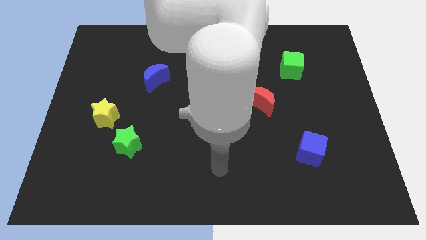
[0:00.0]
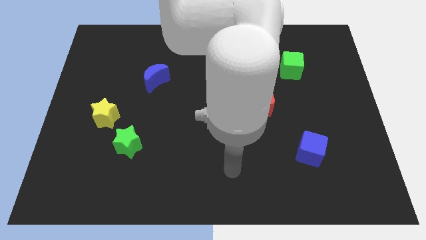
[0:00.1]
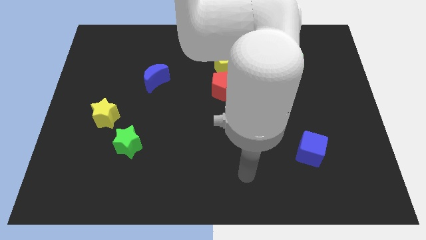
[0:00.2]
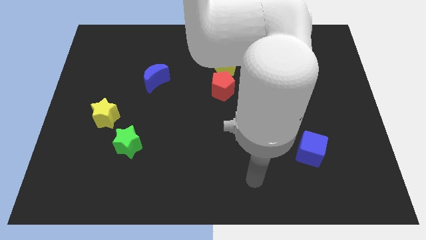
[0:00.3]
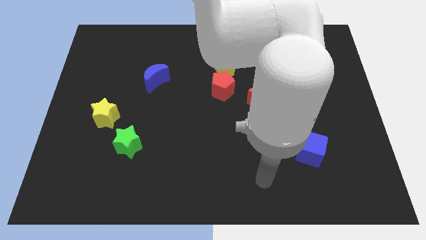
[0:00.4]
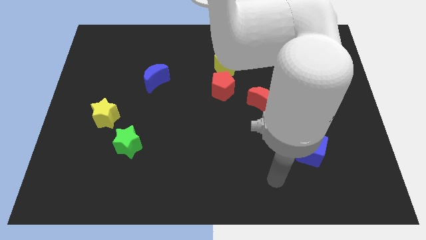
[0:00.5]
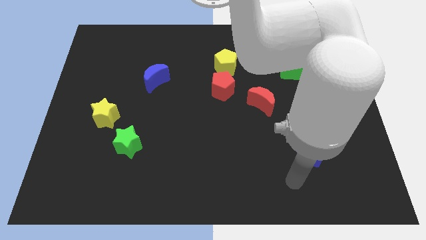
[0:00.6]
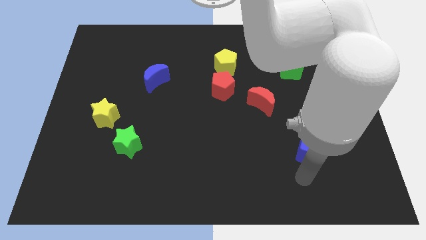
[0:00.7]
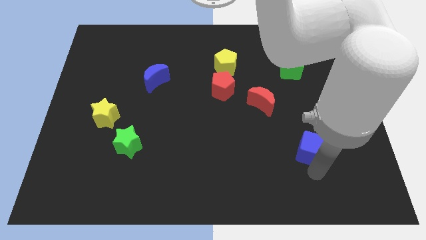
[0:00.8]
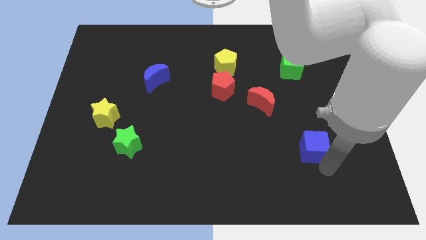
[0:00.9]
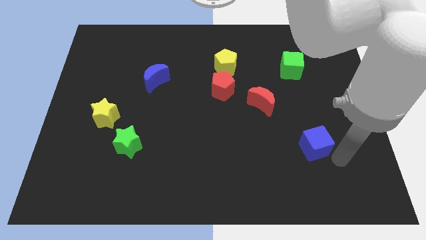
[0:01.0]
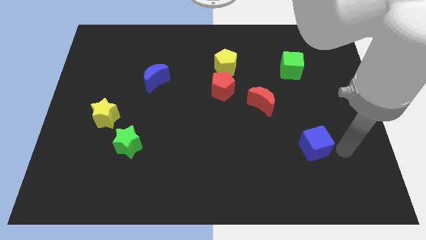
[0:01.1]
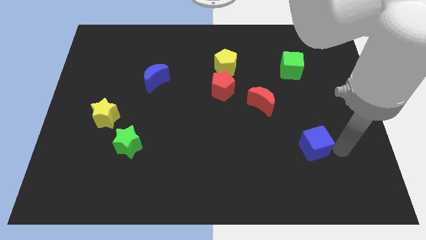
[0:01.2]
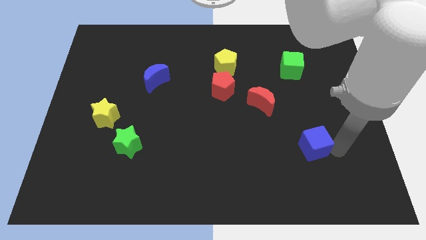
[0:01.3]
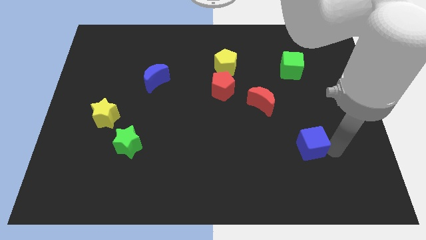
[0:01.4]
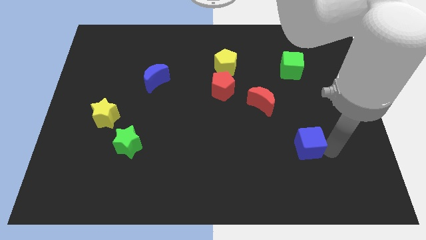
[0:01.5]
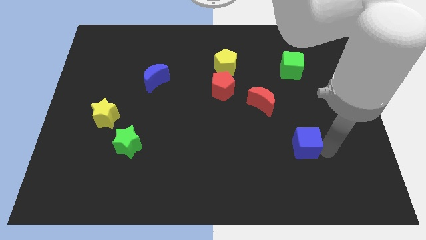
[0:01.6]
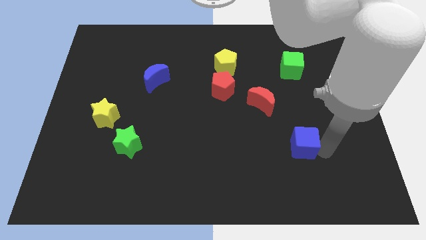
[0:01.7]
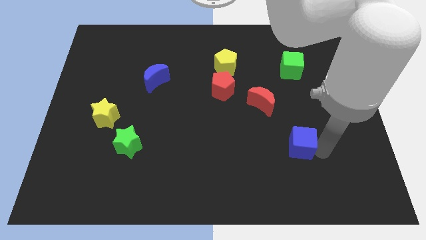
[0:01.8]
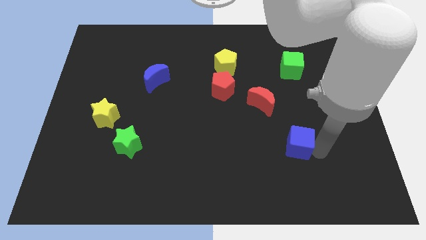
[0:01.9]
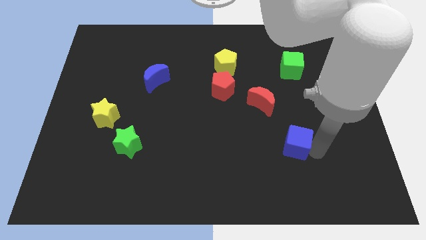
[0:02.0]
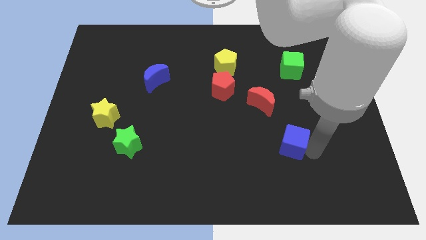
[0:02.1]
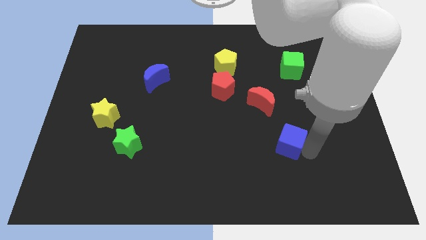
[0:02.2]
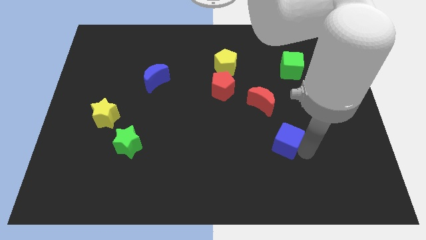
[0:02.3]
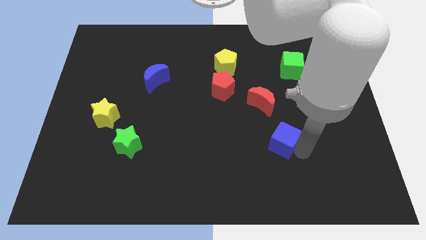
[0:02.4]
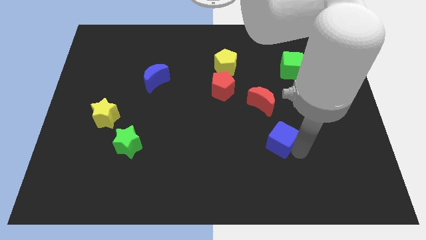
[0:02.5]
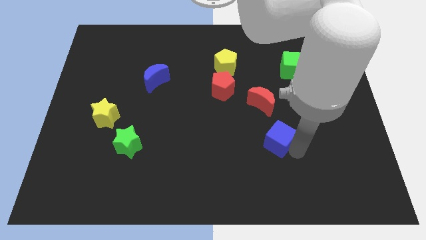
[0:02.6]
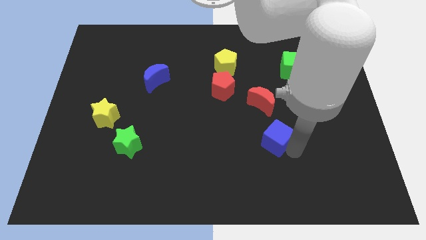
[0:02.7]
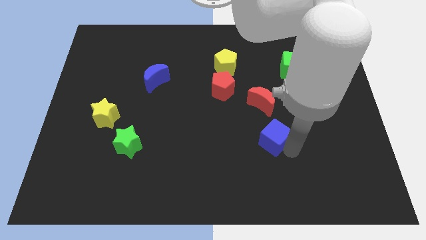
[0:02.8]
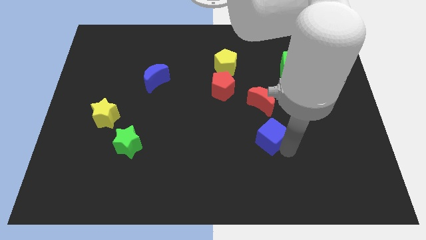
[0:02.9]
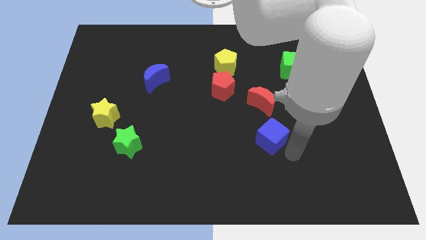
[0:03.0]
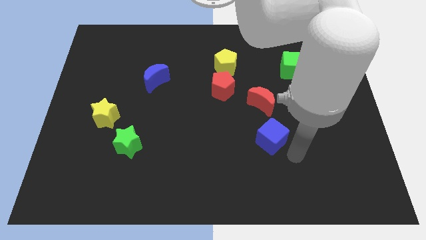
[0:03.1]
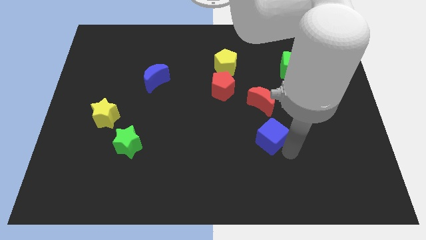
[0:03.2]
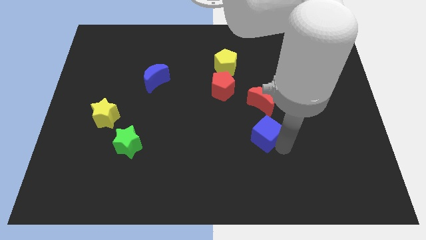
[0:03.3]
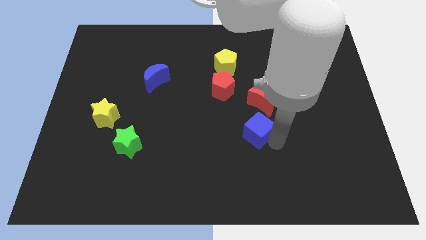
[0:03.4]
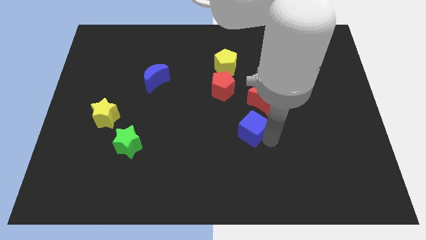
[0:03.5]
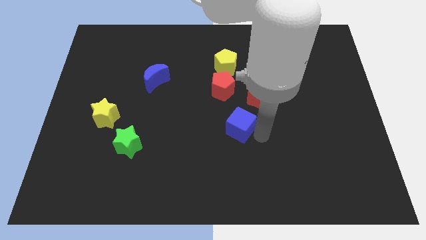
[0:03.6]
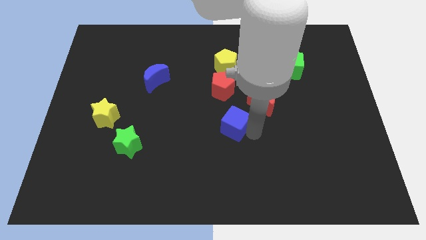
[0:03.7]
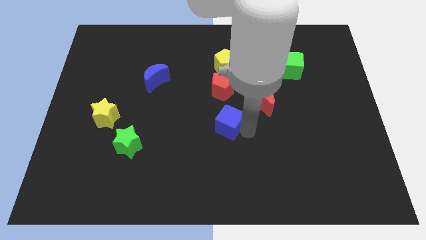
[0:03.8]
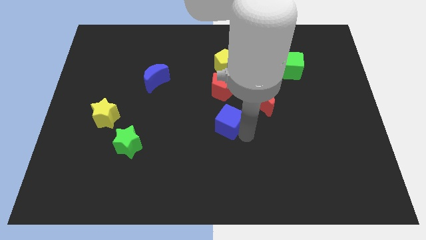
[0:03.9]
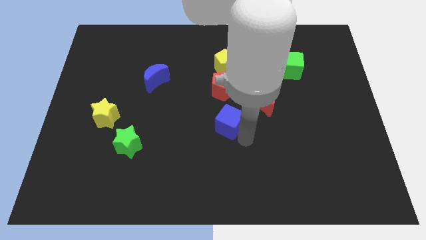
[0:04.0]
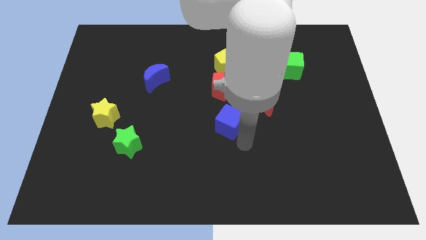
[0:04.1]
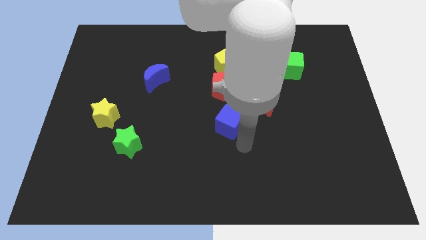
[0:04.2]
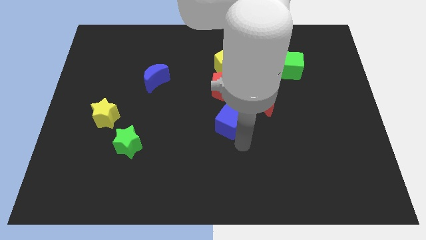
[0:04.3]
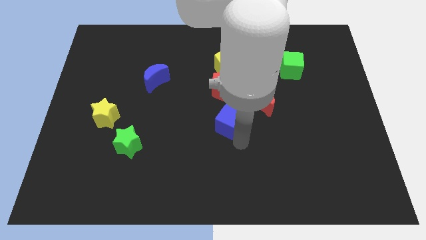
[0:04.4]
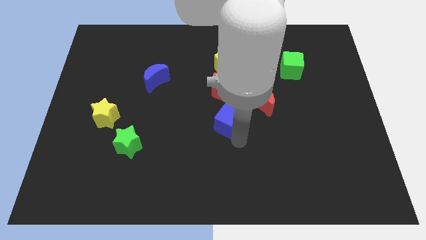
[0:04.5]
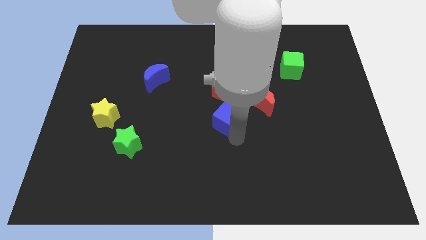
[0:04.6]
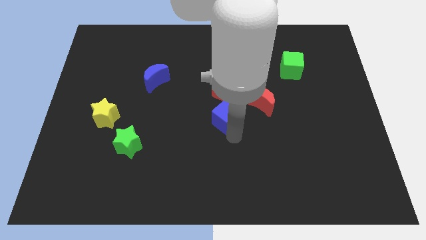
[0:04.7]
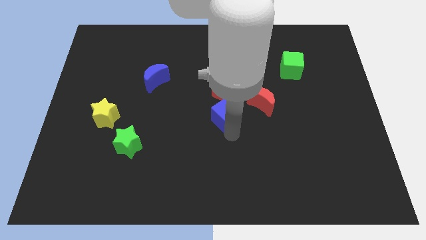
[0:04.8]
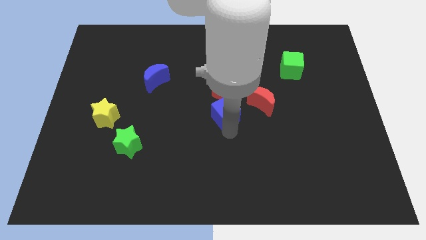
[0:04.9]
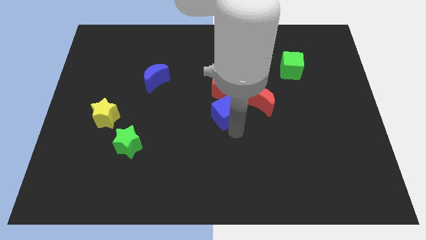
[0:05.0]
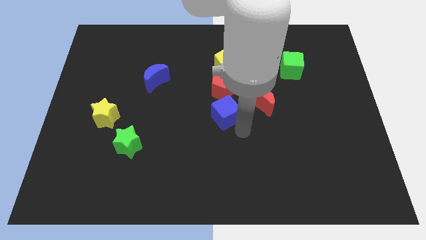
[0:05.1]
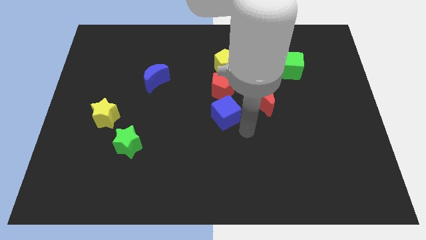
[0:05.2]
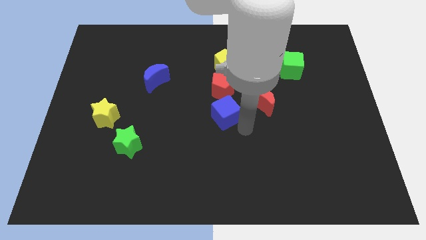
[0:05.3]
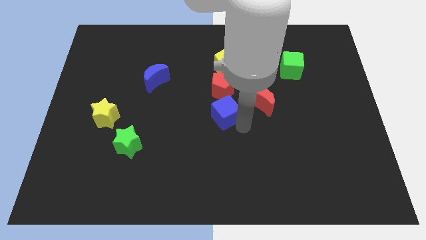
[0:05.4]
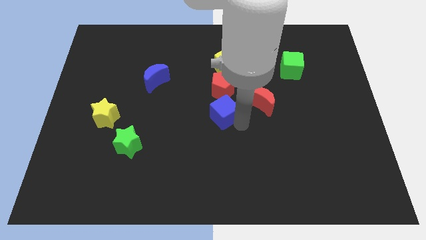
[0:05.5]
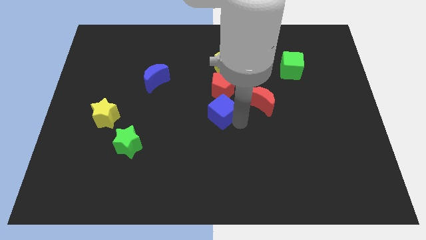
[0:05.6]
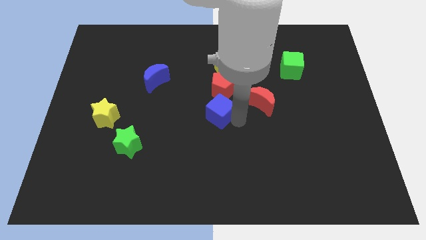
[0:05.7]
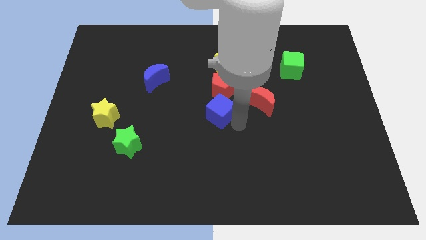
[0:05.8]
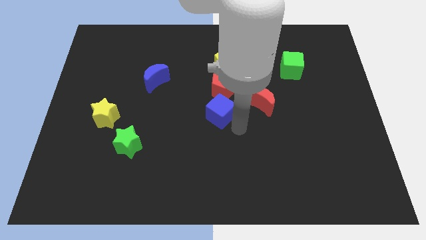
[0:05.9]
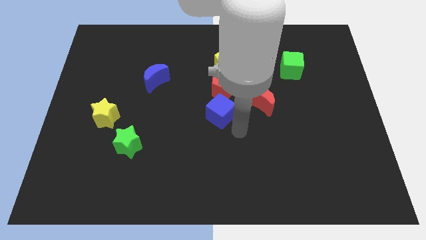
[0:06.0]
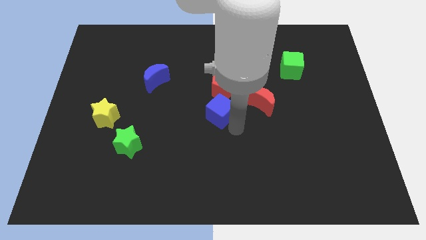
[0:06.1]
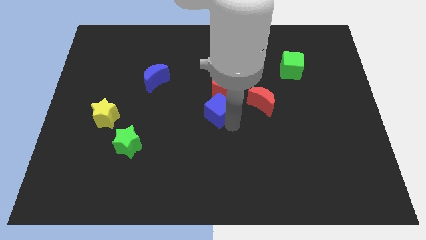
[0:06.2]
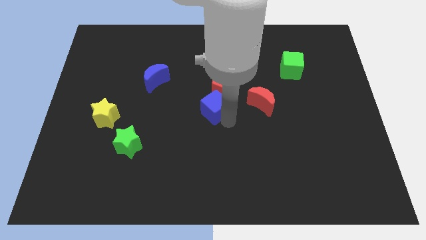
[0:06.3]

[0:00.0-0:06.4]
move the blue cube diagonally upwards and left

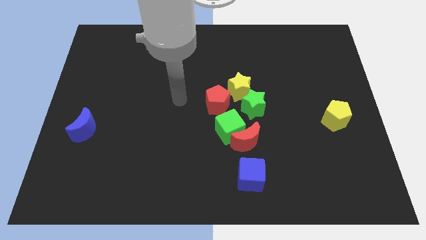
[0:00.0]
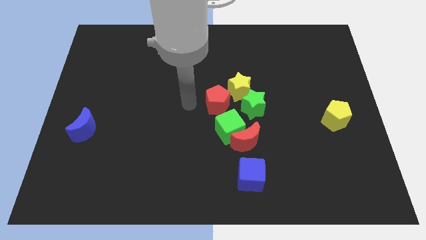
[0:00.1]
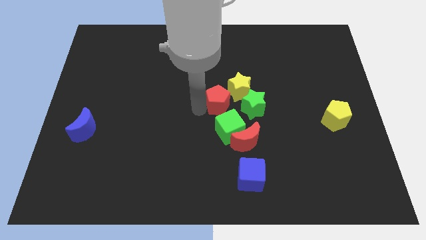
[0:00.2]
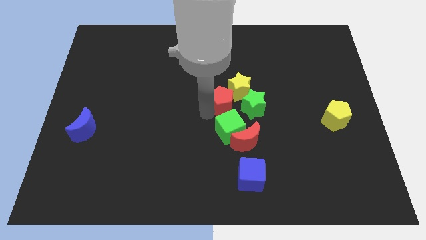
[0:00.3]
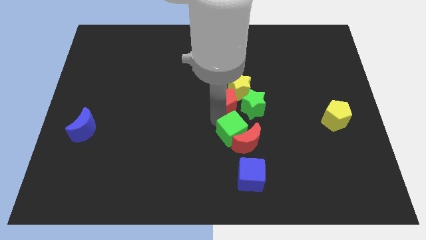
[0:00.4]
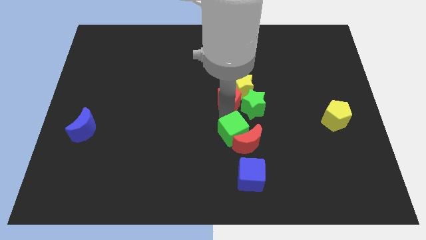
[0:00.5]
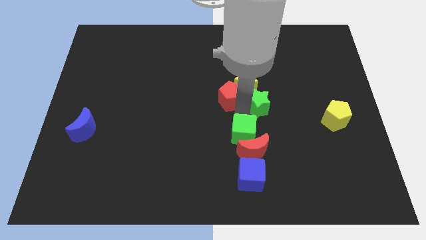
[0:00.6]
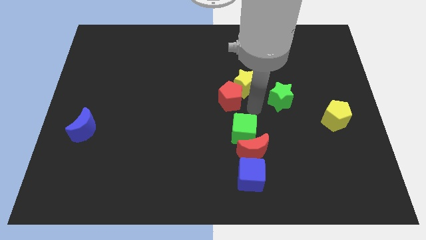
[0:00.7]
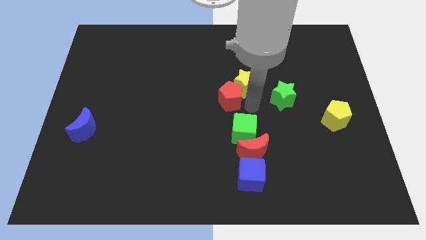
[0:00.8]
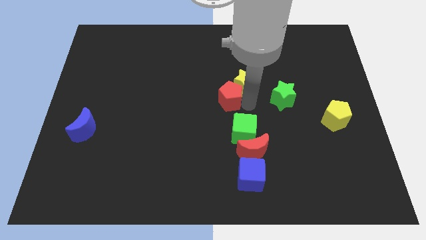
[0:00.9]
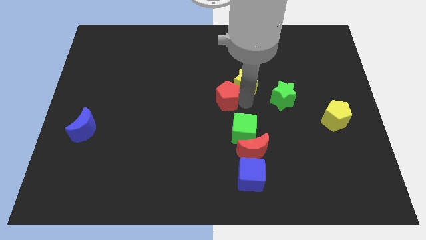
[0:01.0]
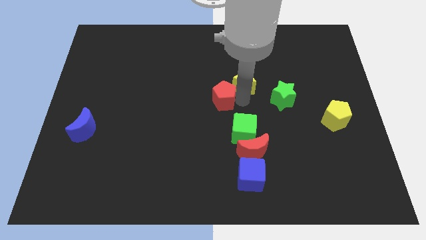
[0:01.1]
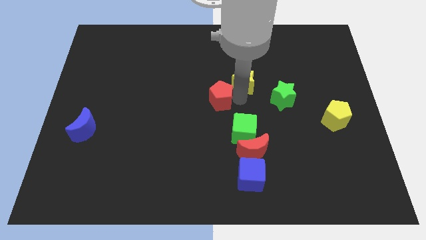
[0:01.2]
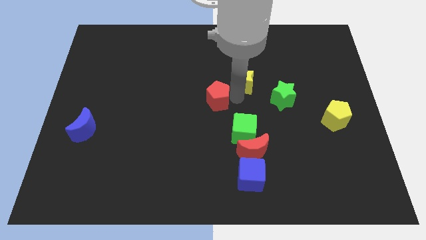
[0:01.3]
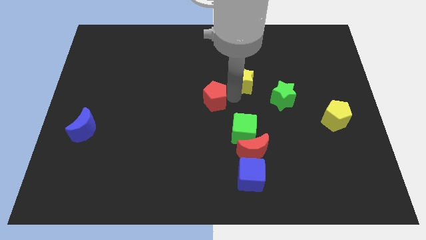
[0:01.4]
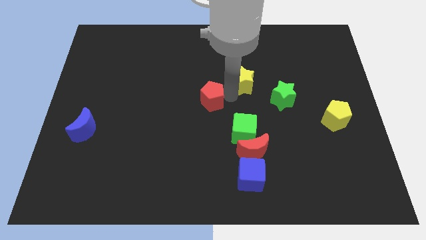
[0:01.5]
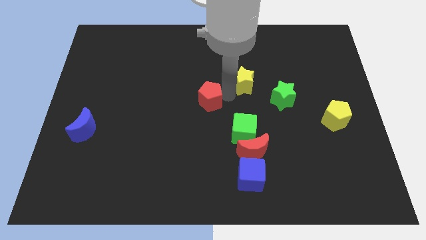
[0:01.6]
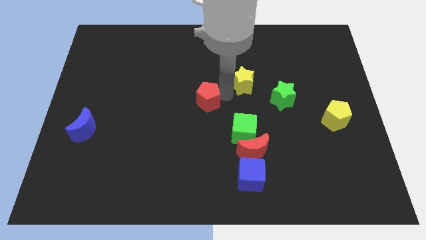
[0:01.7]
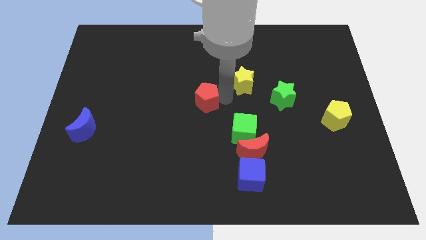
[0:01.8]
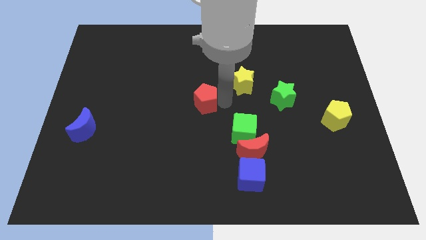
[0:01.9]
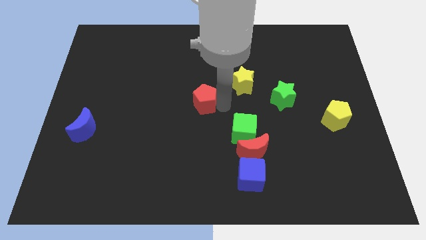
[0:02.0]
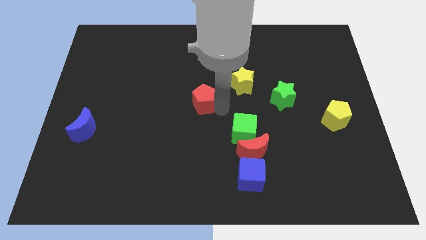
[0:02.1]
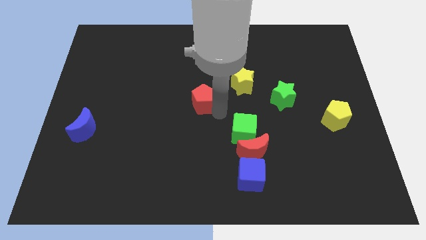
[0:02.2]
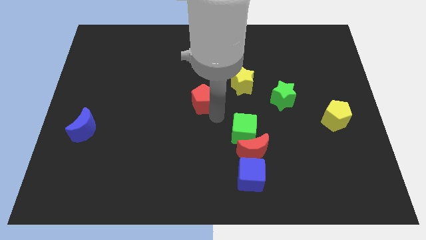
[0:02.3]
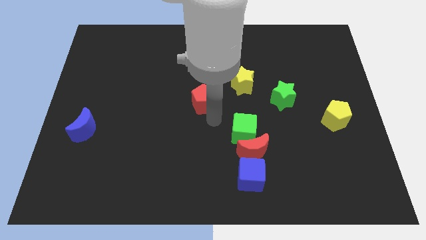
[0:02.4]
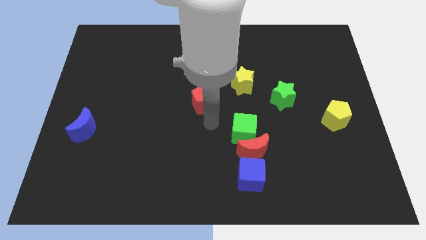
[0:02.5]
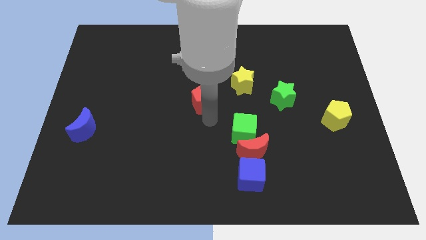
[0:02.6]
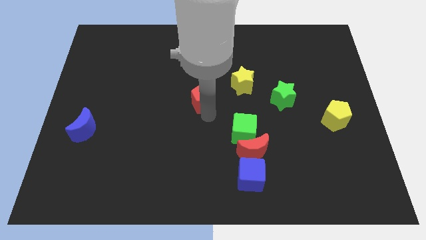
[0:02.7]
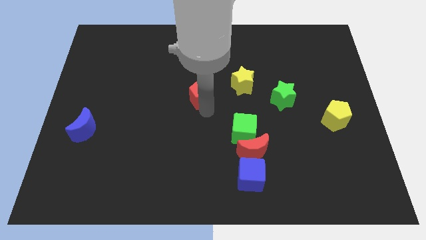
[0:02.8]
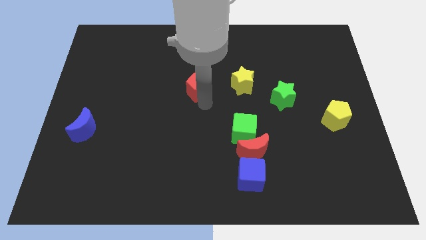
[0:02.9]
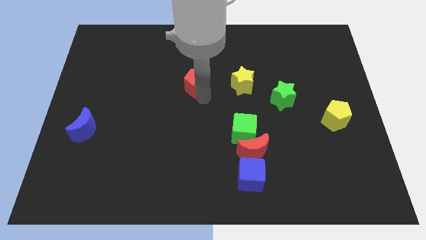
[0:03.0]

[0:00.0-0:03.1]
slightly move the red pentagon diagonally up and to the left
